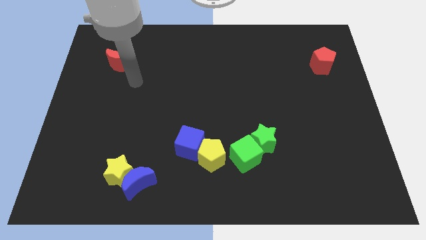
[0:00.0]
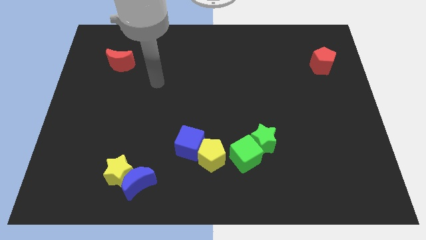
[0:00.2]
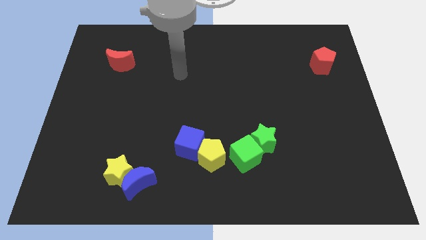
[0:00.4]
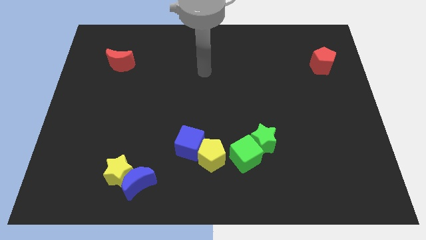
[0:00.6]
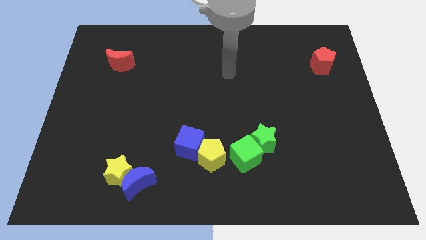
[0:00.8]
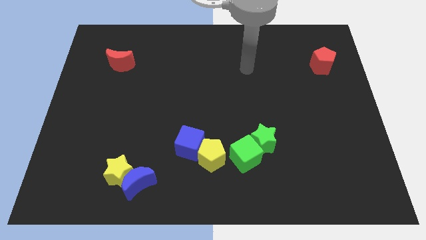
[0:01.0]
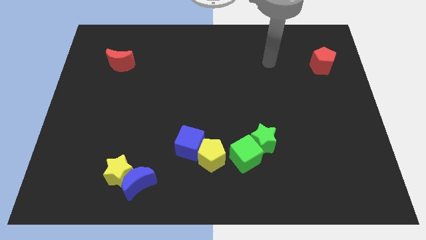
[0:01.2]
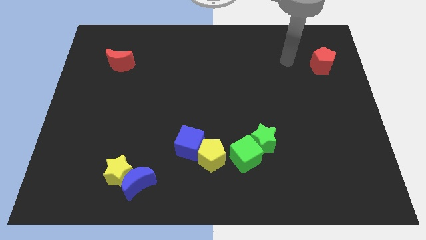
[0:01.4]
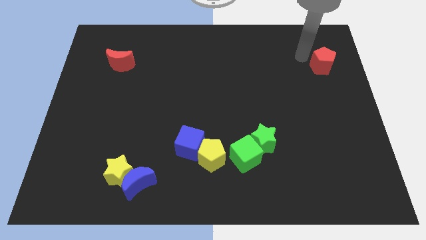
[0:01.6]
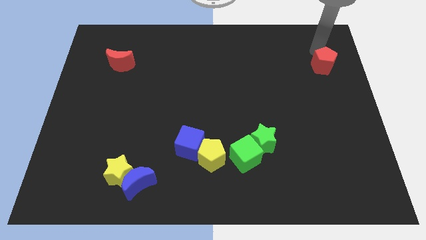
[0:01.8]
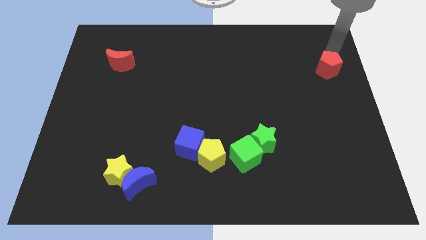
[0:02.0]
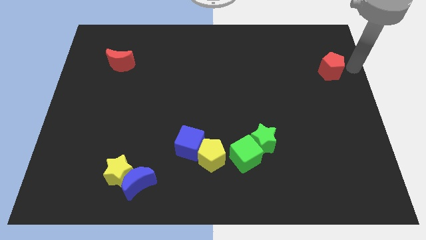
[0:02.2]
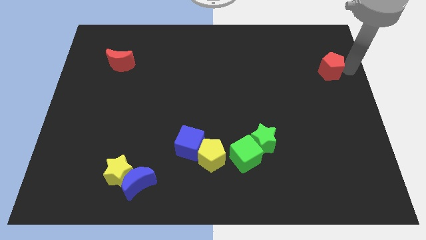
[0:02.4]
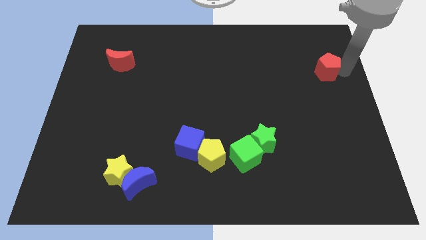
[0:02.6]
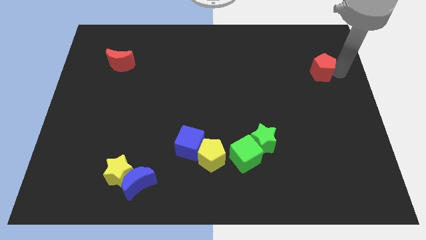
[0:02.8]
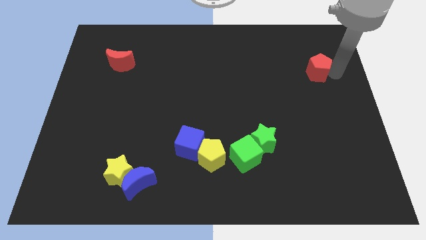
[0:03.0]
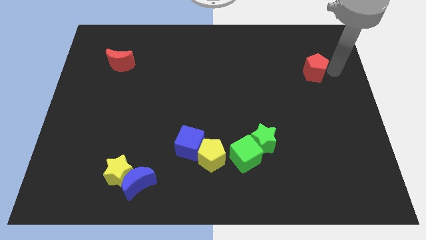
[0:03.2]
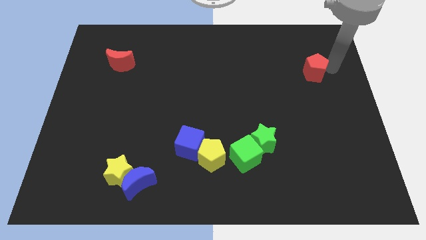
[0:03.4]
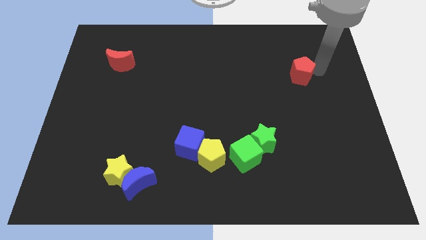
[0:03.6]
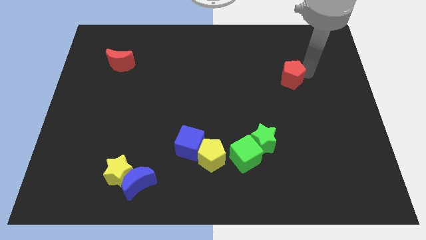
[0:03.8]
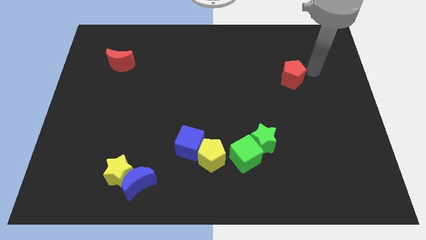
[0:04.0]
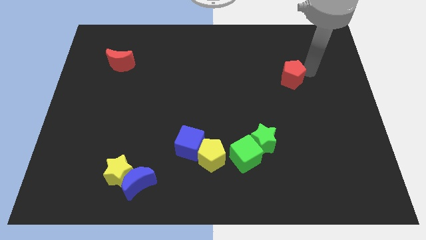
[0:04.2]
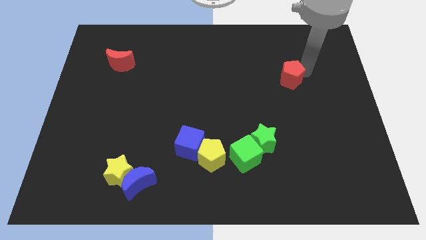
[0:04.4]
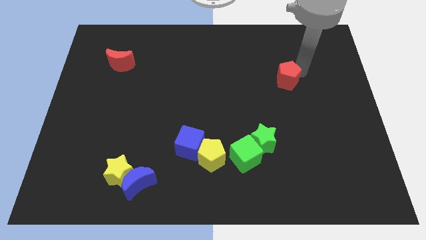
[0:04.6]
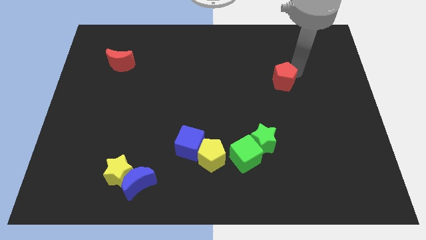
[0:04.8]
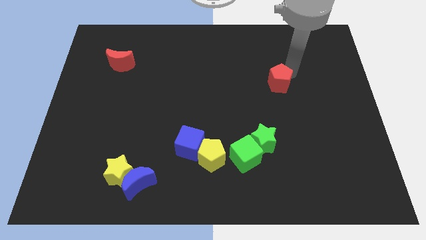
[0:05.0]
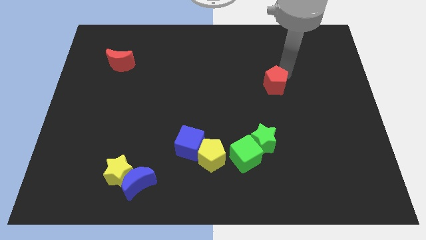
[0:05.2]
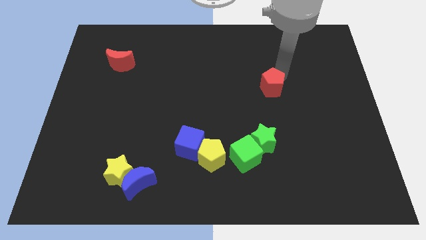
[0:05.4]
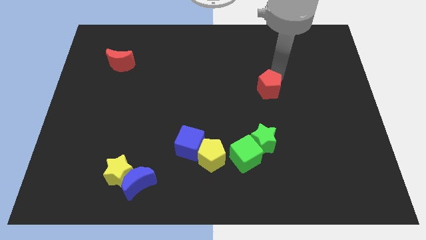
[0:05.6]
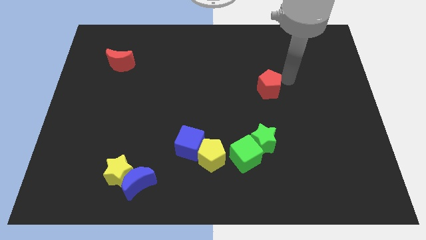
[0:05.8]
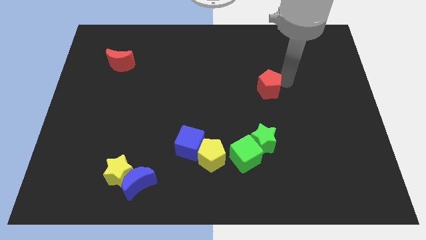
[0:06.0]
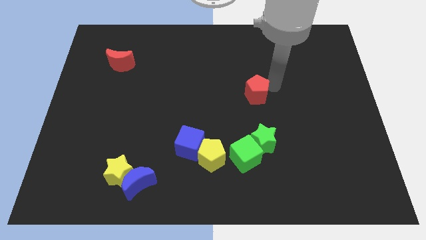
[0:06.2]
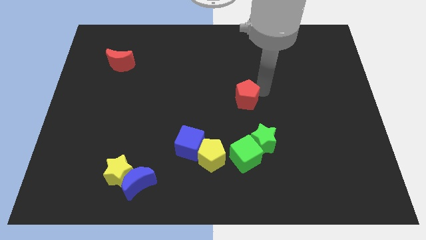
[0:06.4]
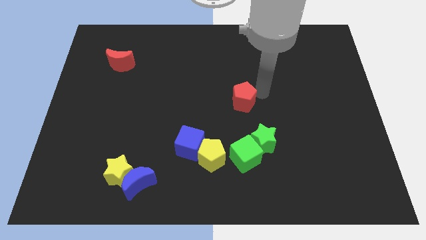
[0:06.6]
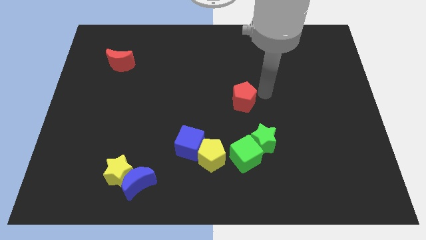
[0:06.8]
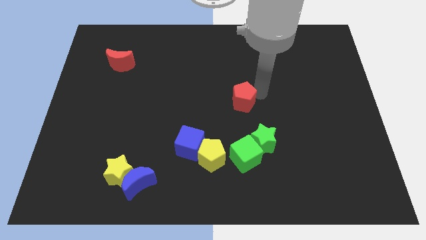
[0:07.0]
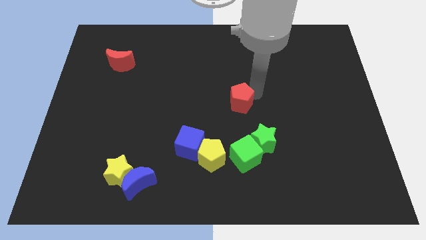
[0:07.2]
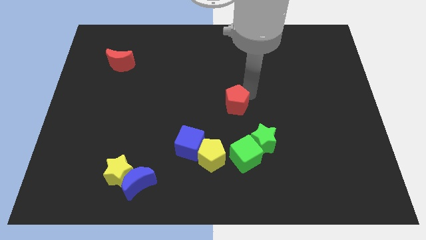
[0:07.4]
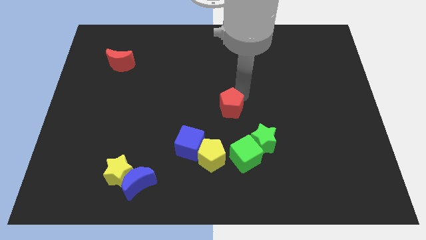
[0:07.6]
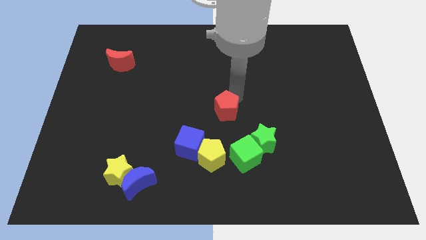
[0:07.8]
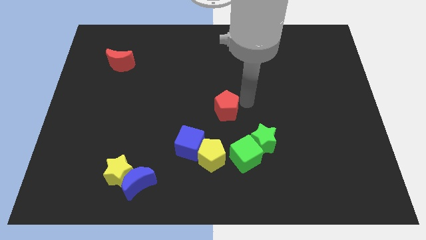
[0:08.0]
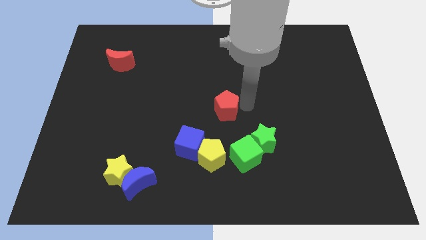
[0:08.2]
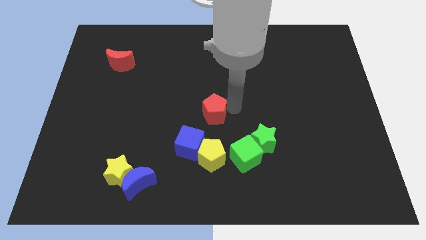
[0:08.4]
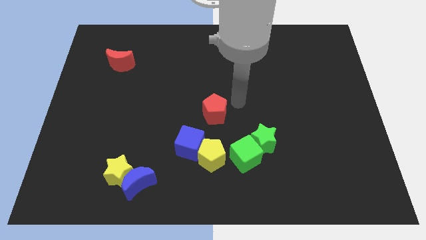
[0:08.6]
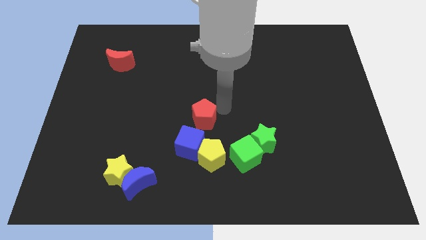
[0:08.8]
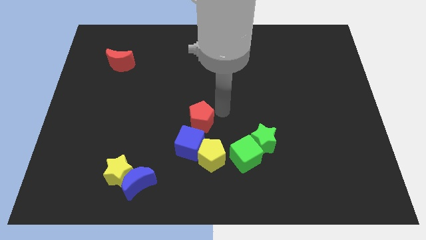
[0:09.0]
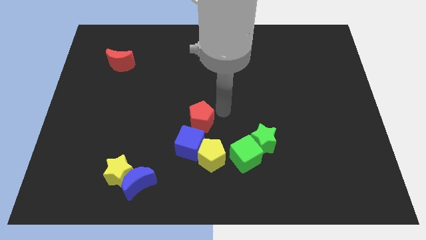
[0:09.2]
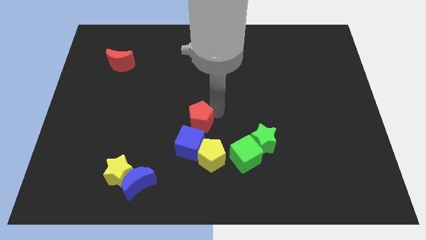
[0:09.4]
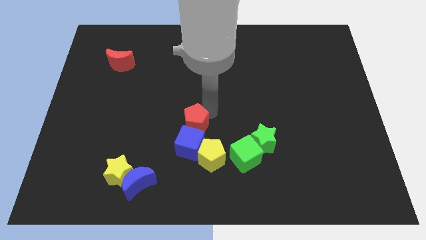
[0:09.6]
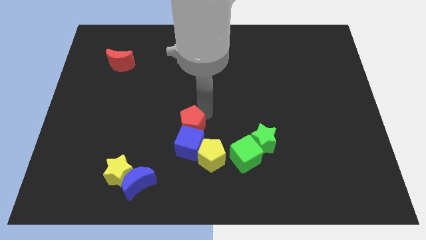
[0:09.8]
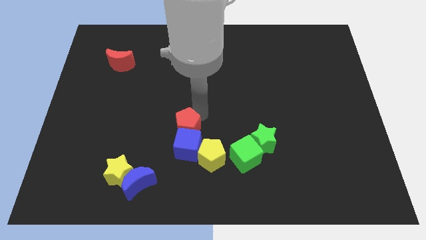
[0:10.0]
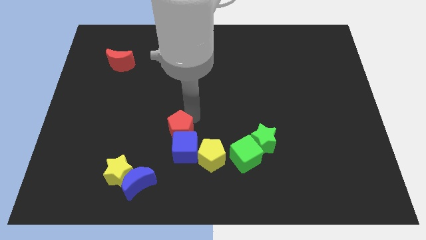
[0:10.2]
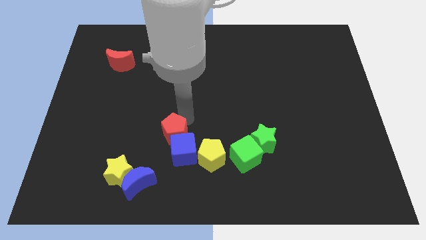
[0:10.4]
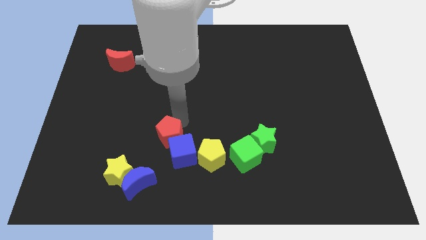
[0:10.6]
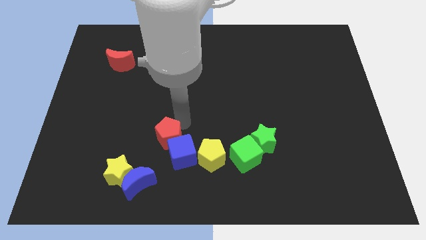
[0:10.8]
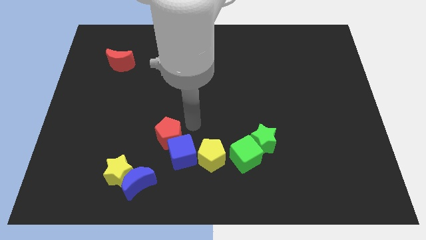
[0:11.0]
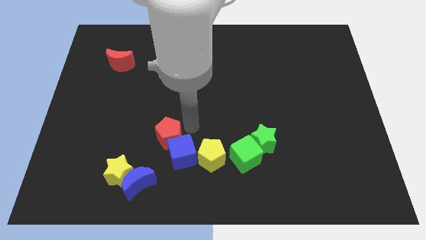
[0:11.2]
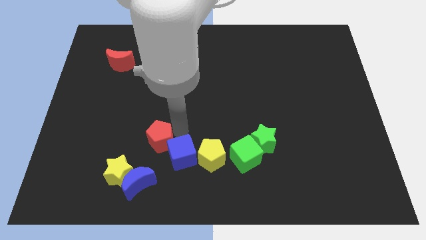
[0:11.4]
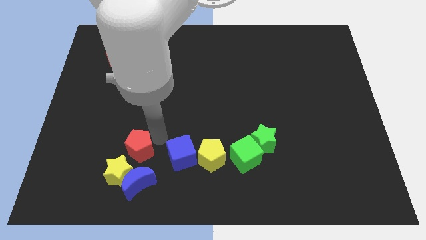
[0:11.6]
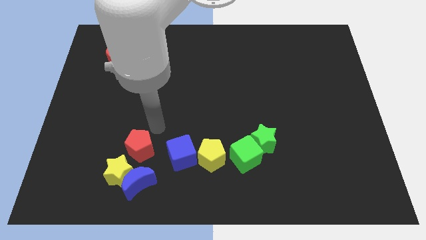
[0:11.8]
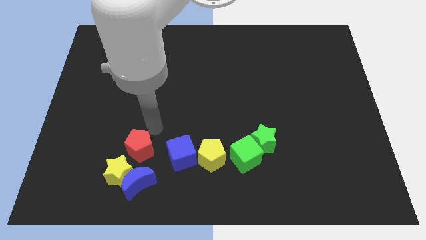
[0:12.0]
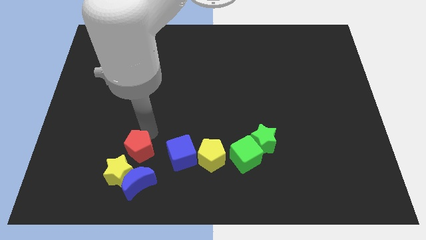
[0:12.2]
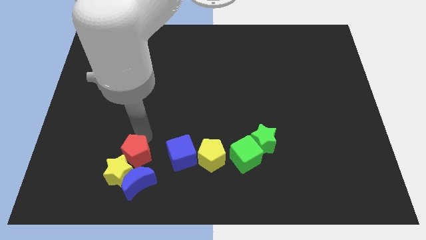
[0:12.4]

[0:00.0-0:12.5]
push the red pentagon next to the yellow star

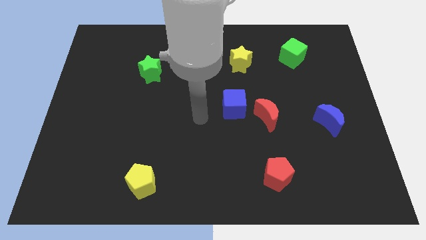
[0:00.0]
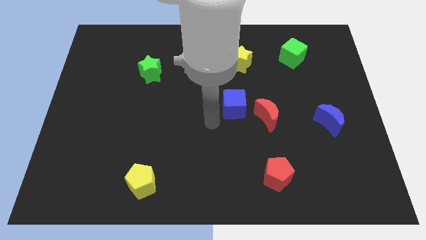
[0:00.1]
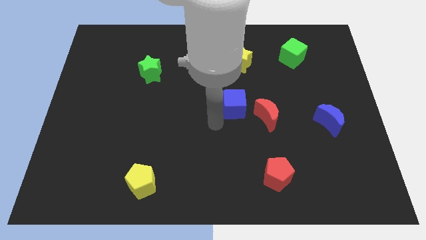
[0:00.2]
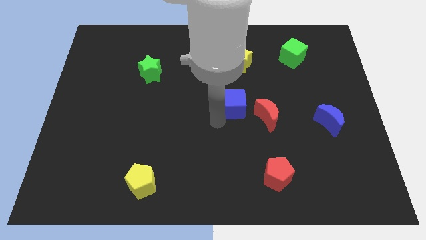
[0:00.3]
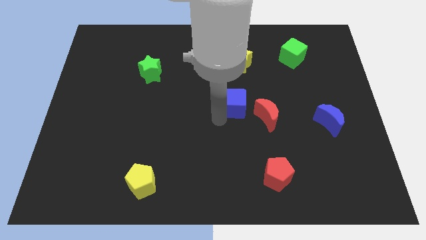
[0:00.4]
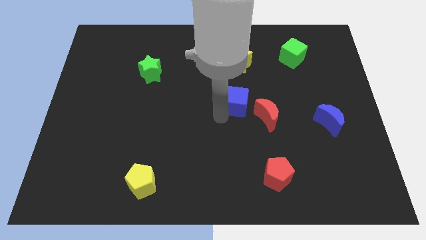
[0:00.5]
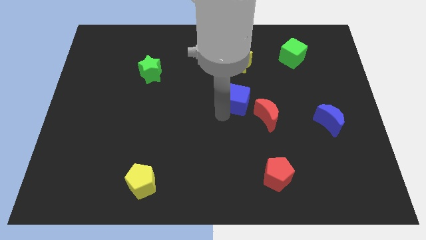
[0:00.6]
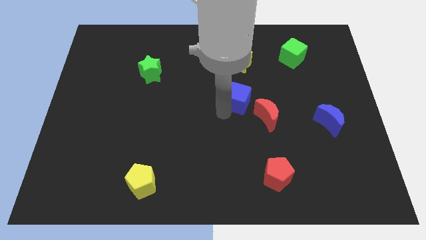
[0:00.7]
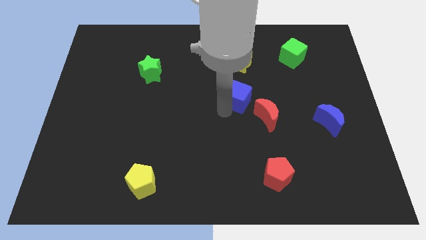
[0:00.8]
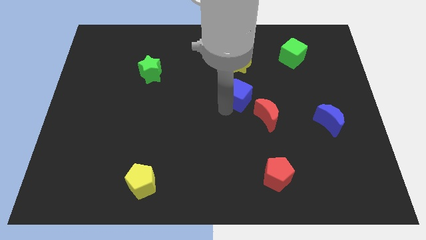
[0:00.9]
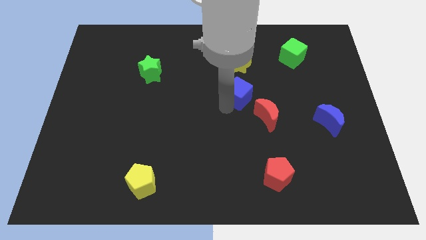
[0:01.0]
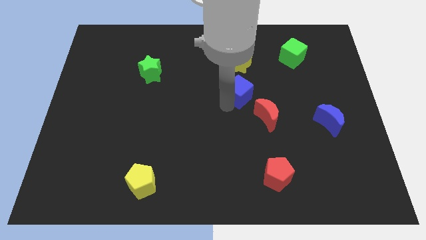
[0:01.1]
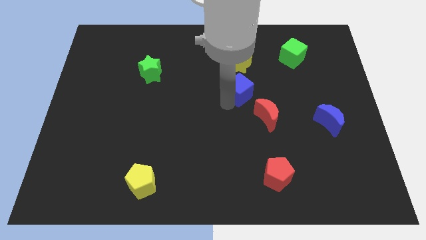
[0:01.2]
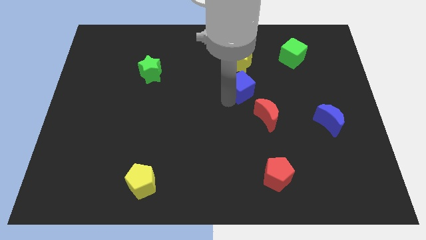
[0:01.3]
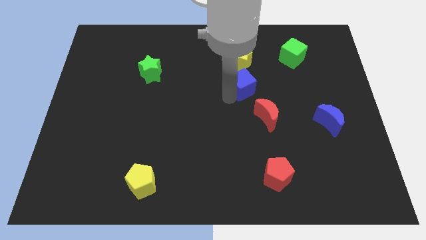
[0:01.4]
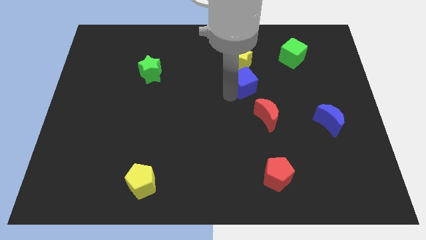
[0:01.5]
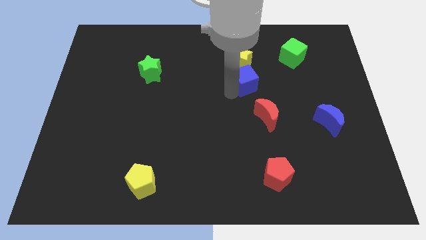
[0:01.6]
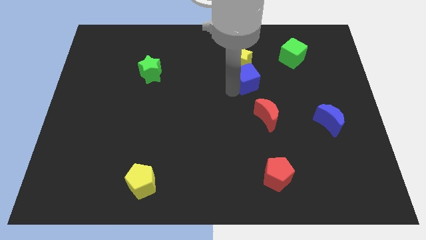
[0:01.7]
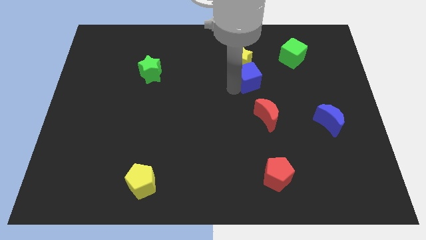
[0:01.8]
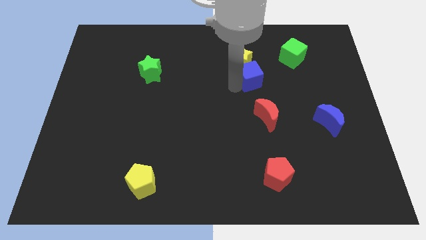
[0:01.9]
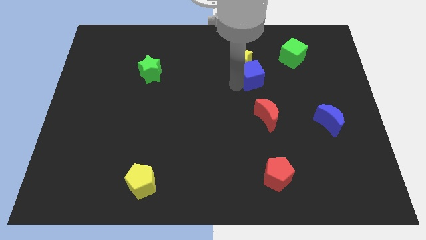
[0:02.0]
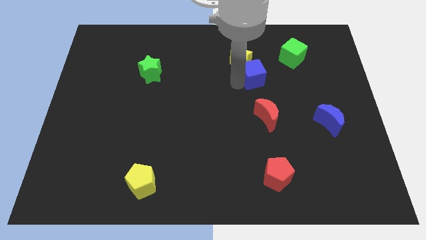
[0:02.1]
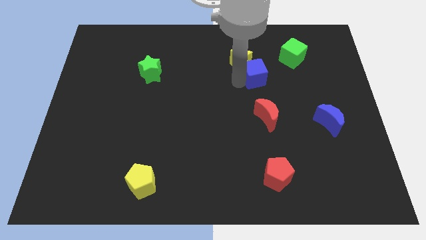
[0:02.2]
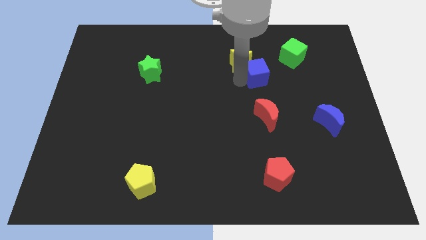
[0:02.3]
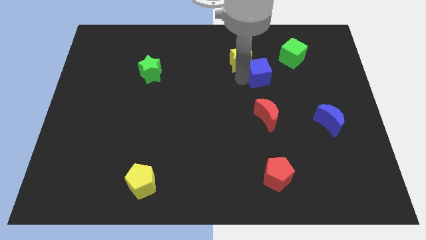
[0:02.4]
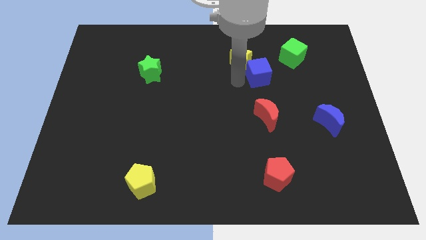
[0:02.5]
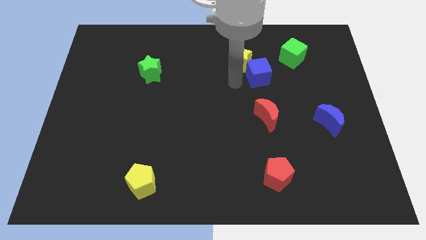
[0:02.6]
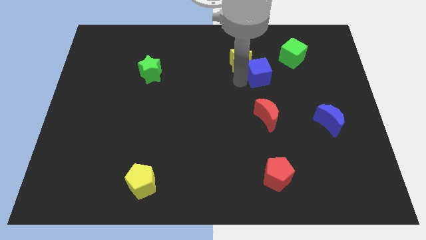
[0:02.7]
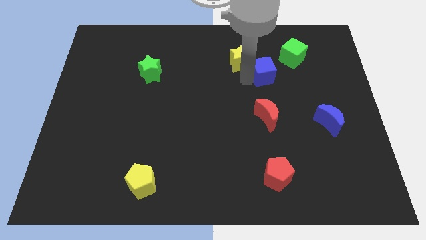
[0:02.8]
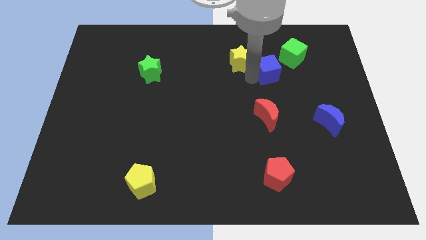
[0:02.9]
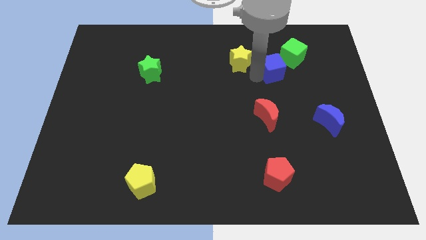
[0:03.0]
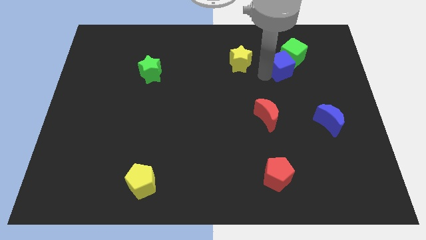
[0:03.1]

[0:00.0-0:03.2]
push the blue cube to the green cube
